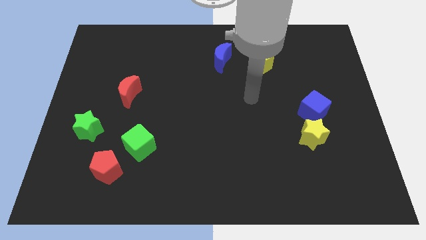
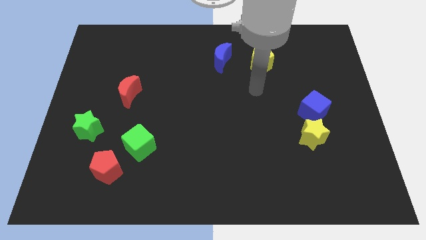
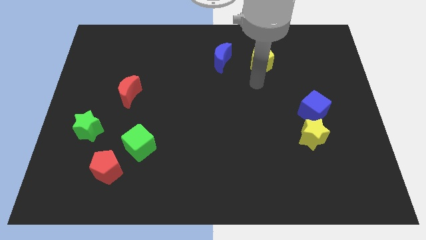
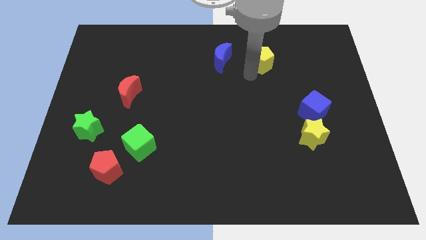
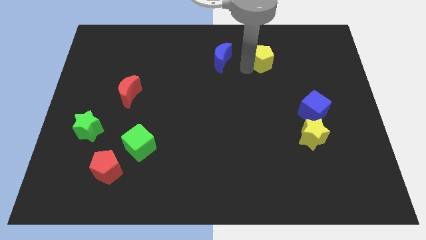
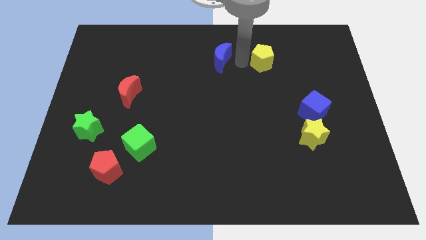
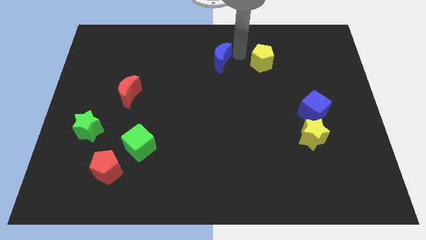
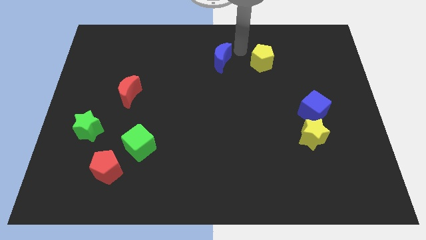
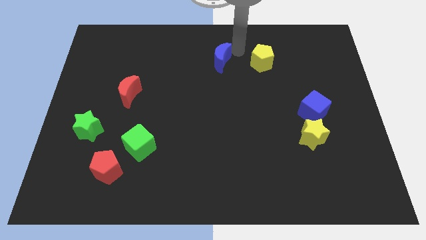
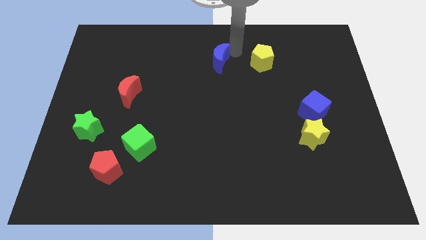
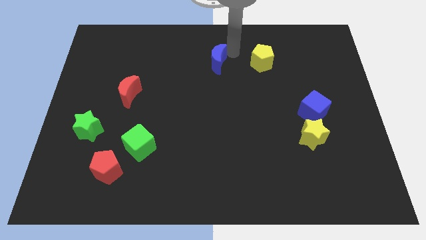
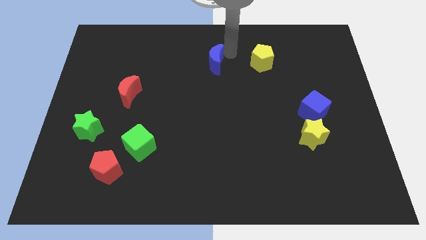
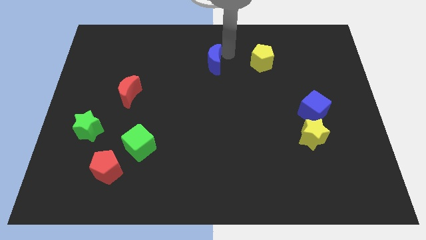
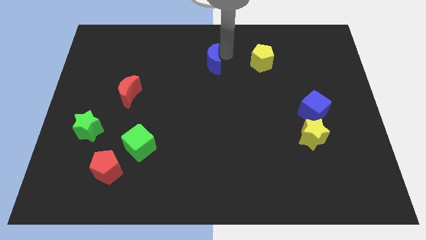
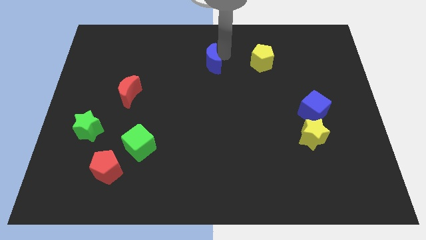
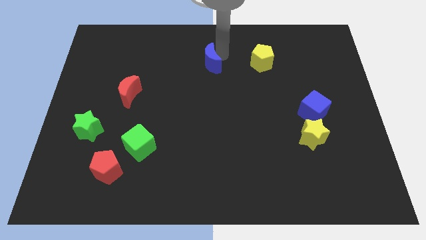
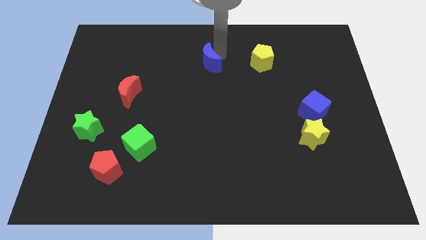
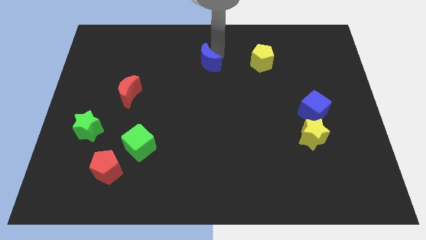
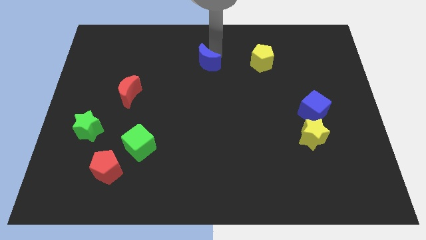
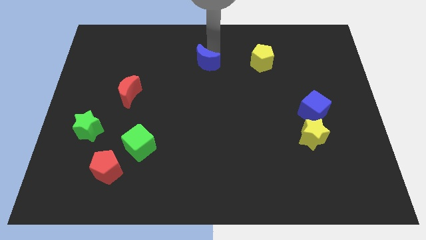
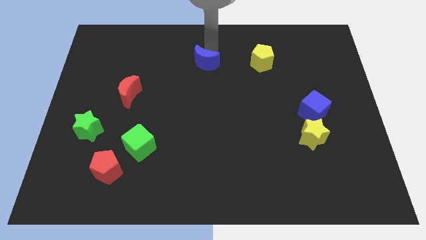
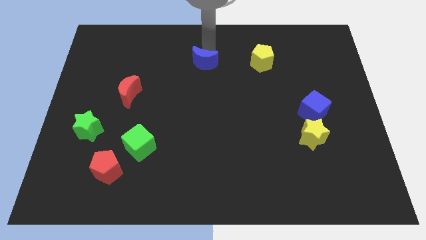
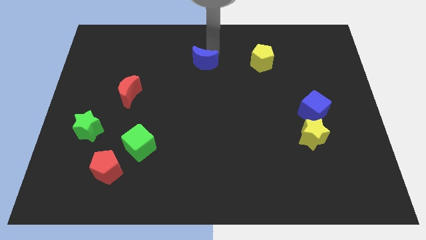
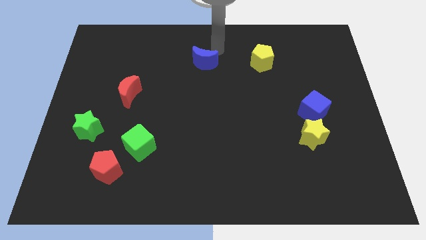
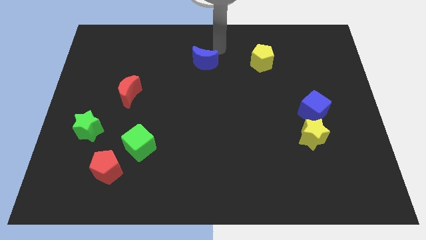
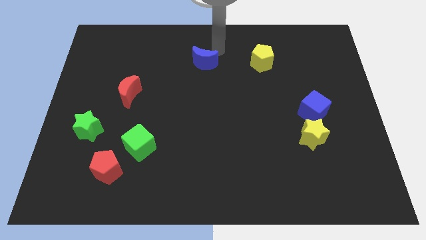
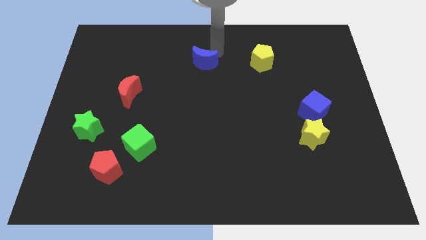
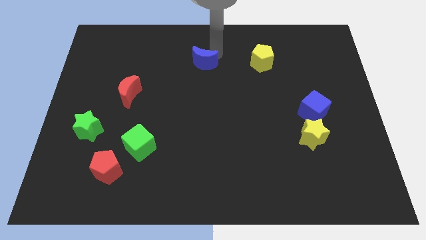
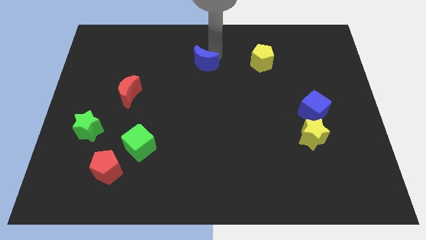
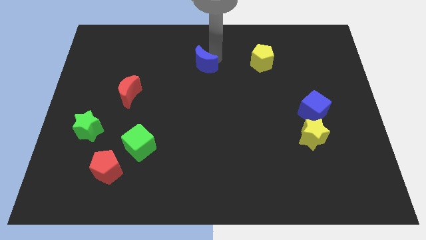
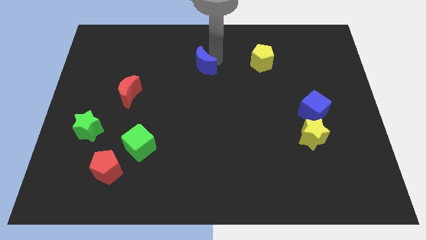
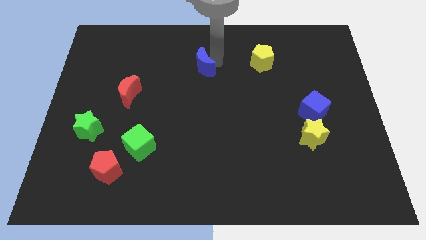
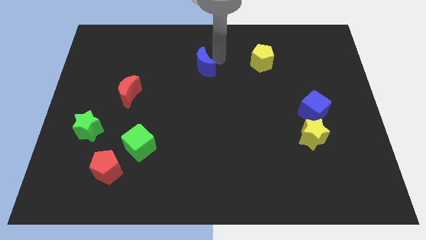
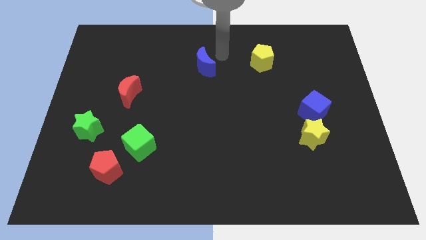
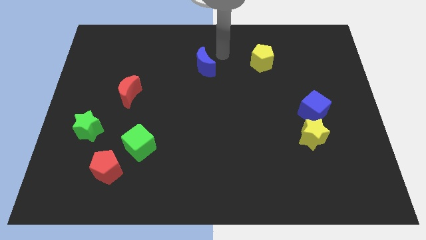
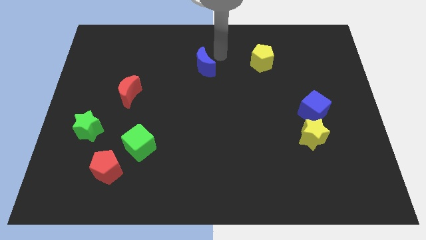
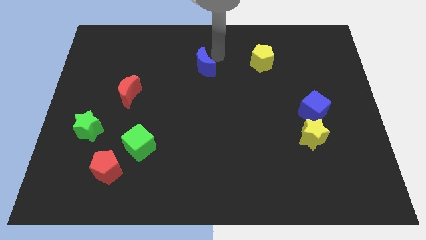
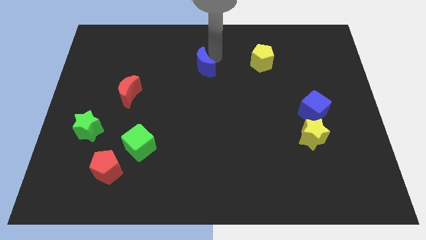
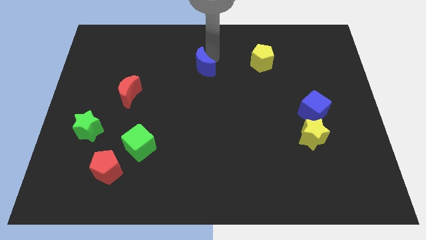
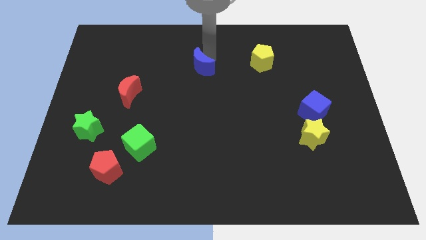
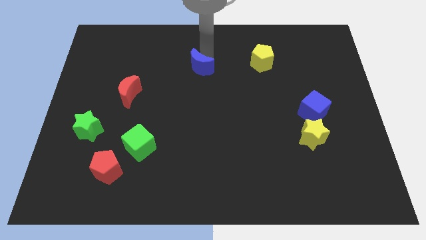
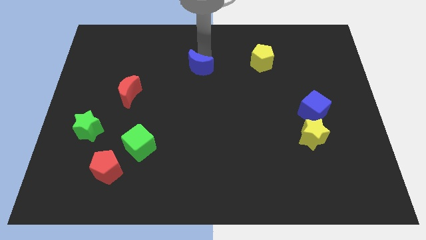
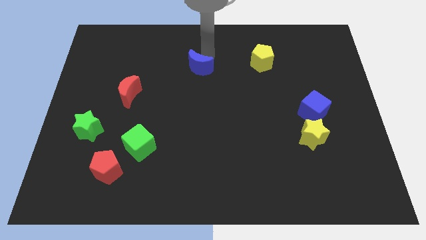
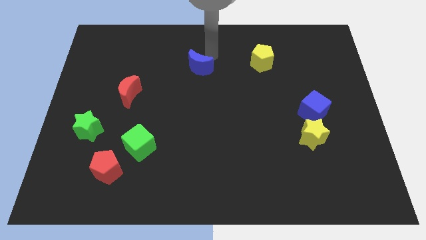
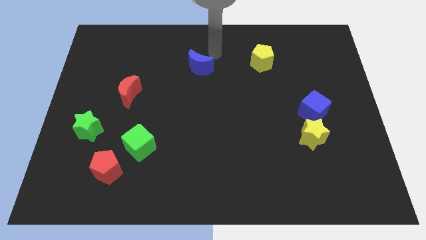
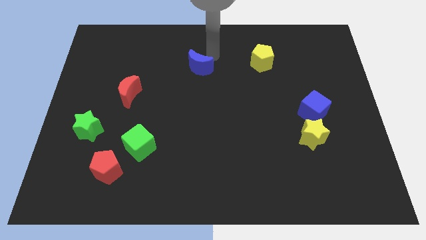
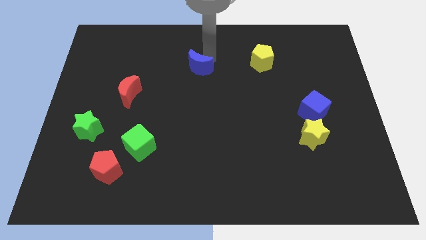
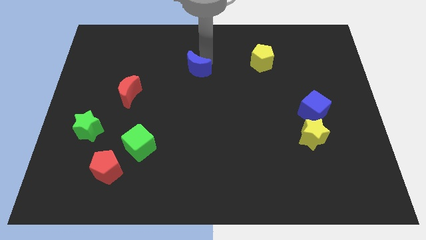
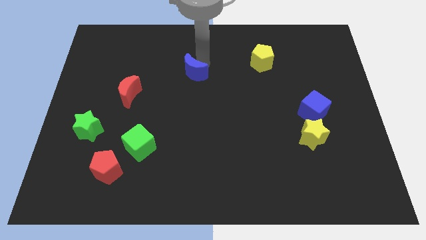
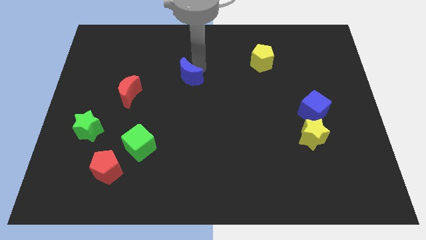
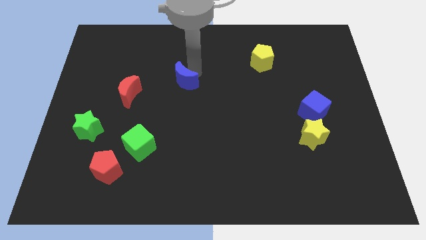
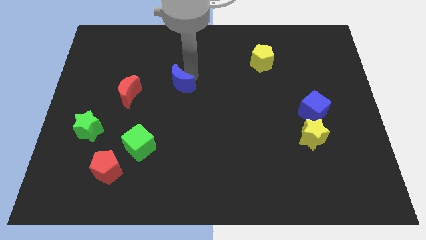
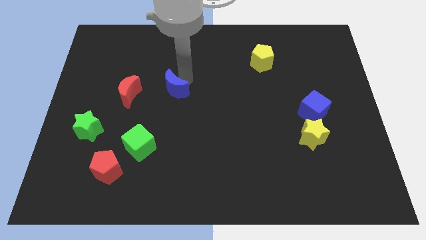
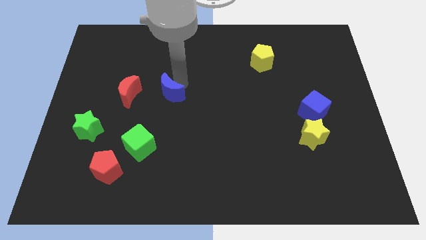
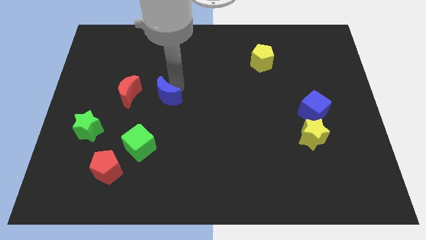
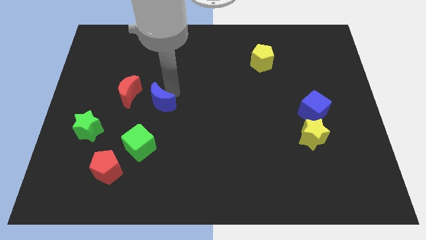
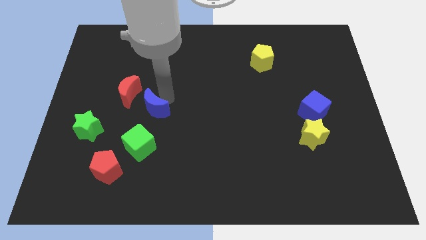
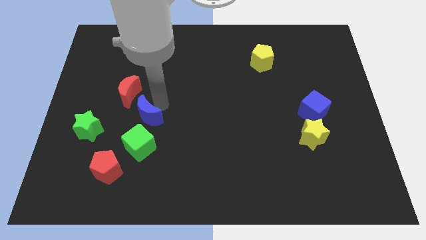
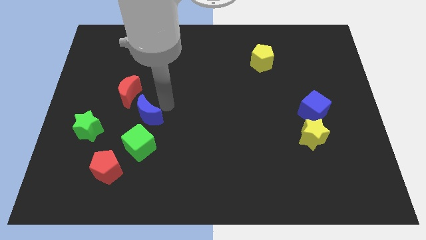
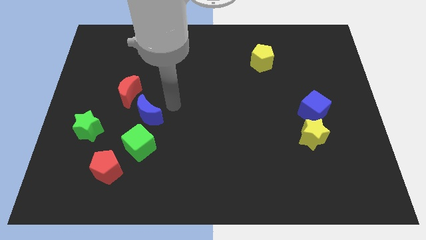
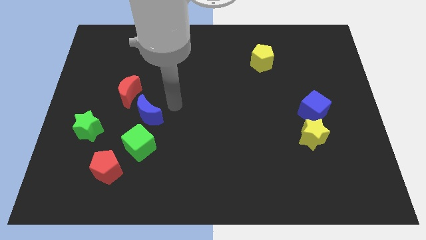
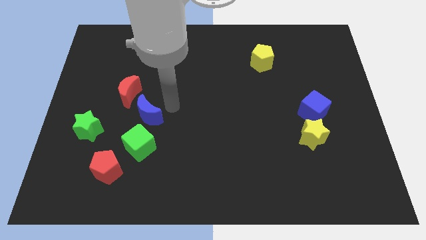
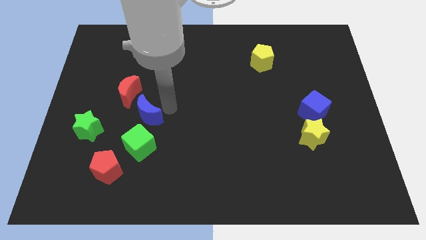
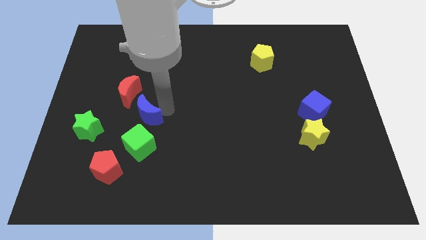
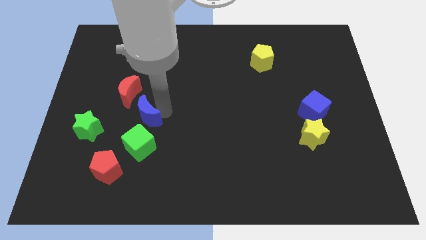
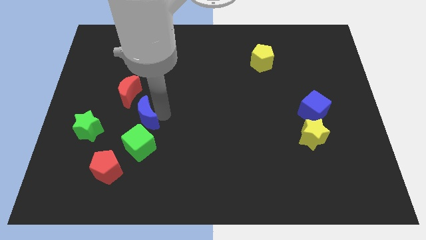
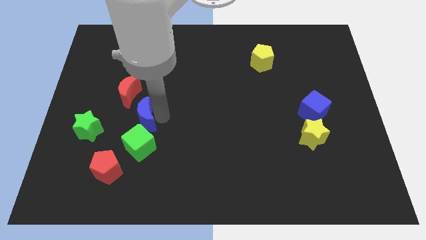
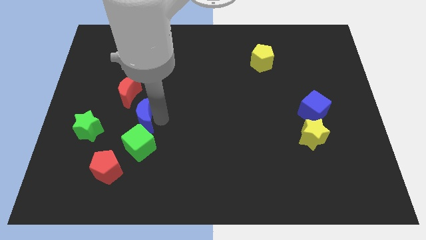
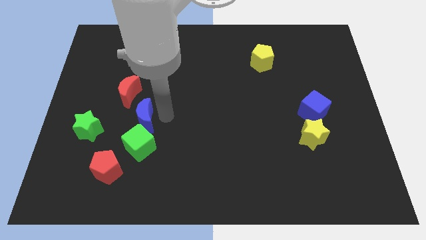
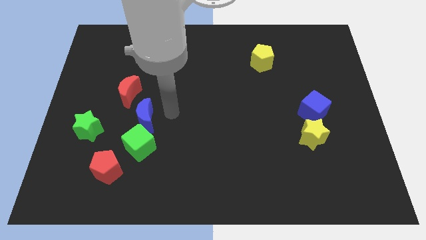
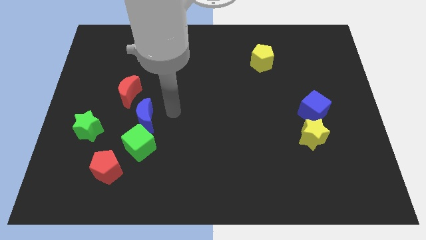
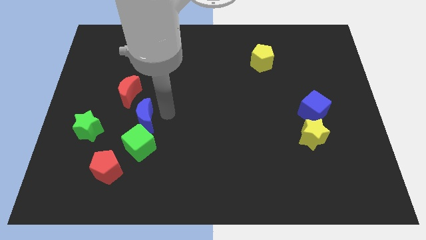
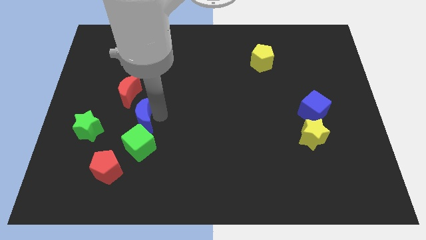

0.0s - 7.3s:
slide the blue moon to the top left side of the green cube

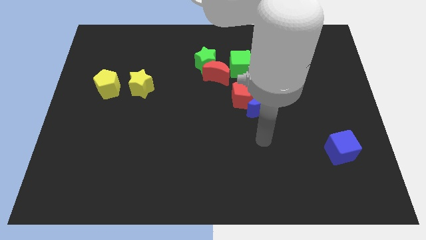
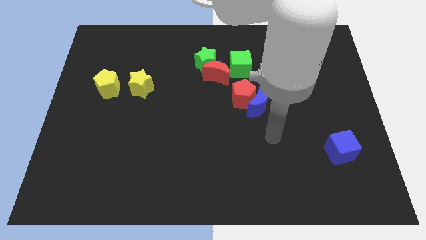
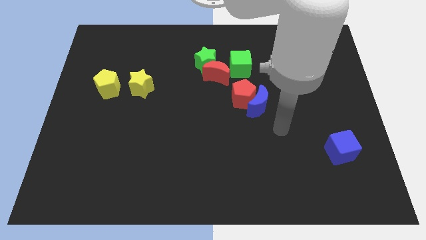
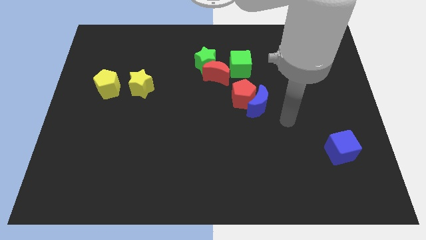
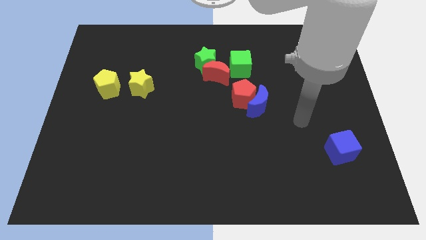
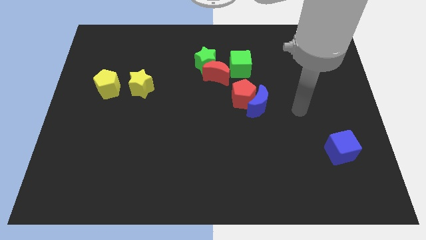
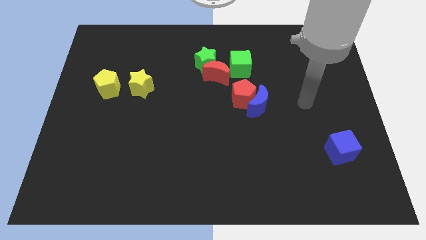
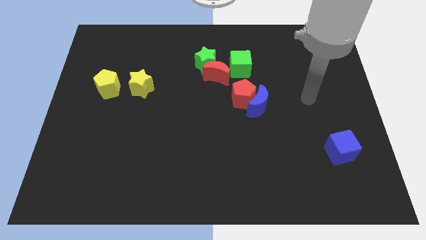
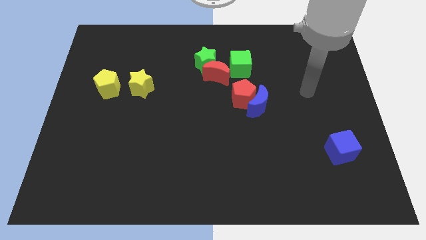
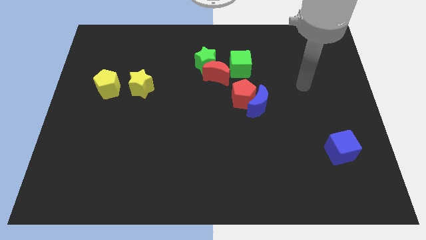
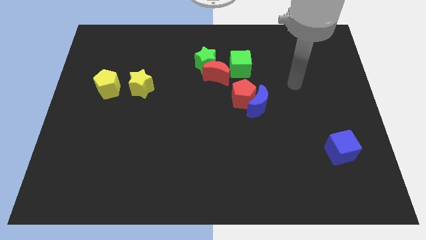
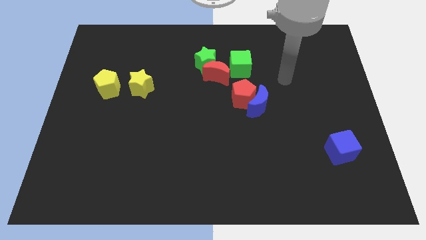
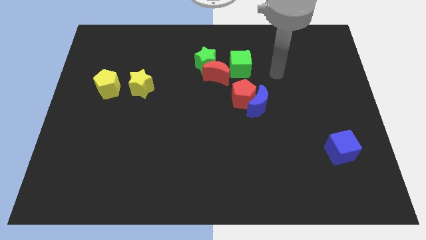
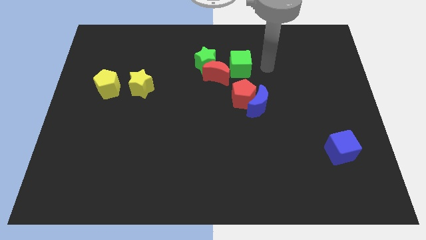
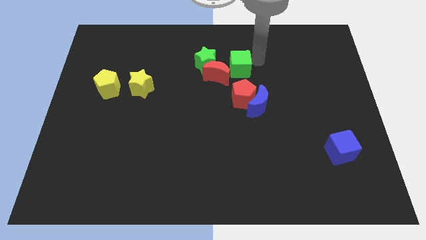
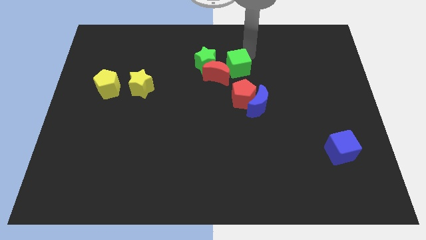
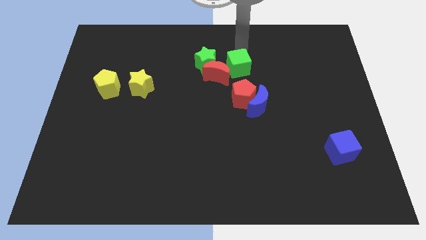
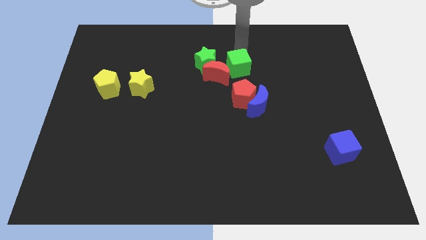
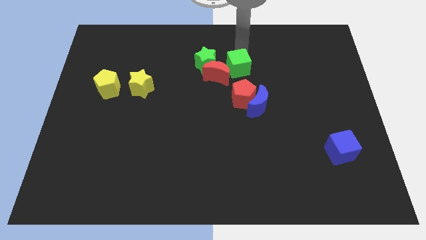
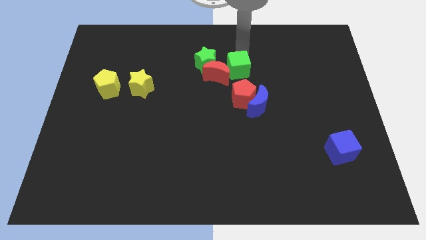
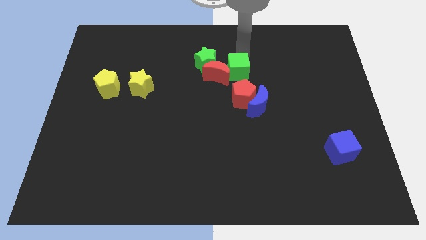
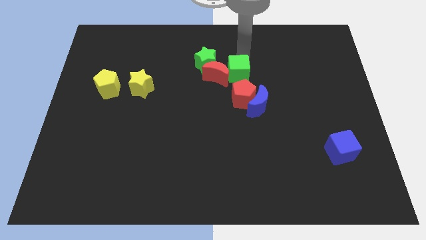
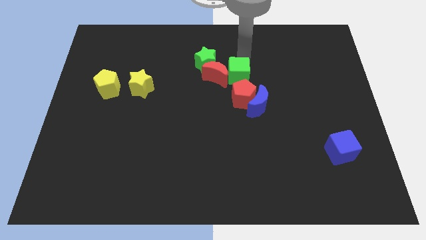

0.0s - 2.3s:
slide the green cube diagonally up and to the left of the blue moon
